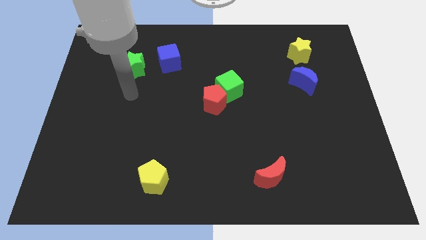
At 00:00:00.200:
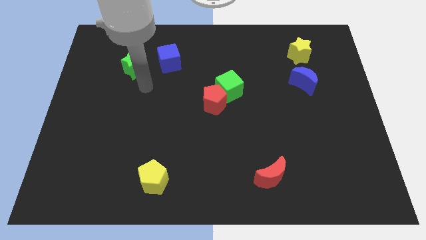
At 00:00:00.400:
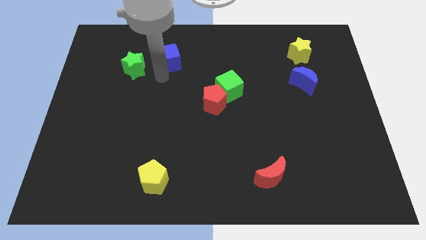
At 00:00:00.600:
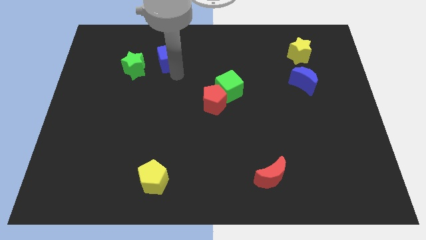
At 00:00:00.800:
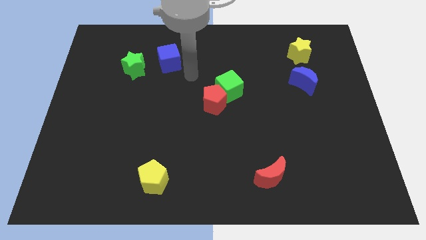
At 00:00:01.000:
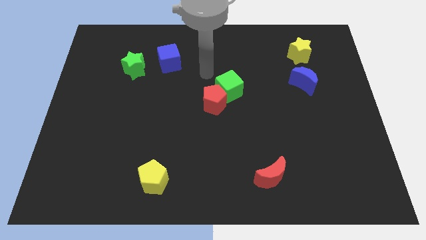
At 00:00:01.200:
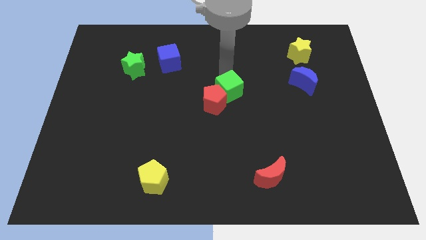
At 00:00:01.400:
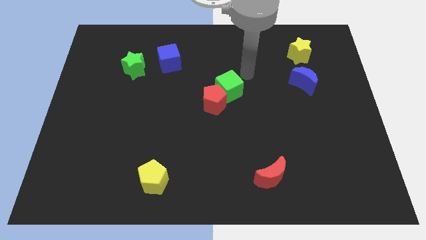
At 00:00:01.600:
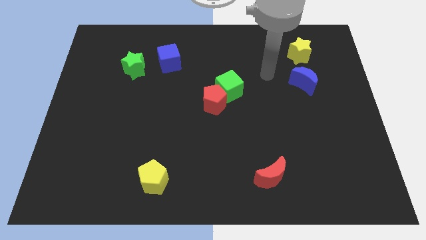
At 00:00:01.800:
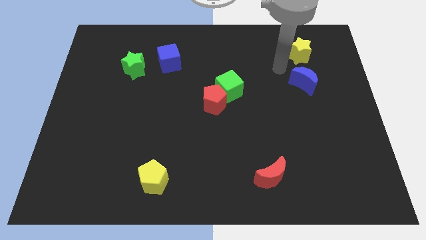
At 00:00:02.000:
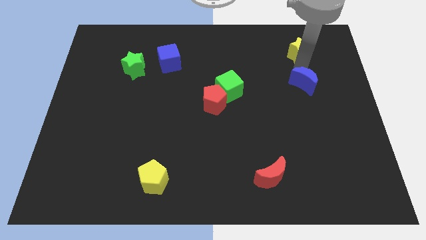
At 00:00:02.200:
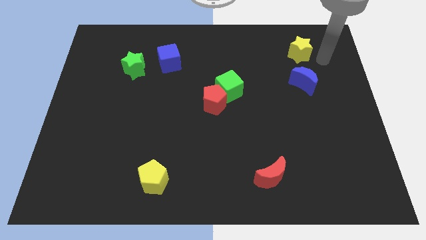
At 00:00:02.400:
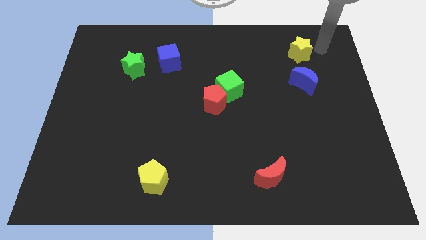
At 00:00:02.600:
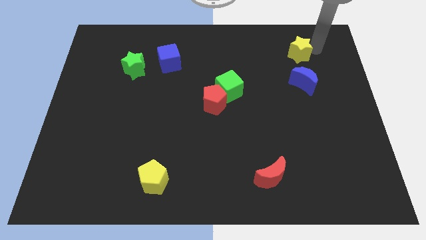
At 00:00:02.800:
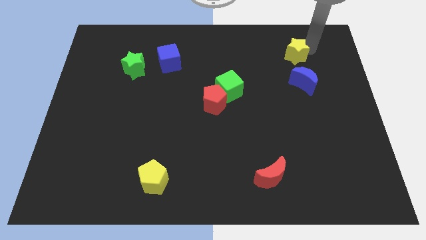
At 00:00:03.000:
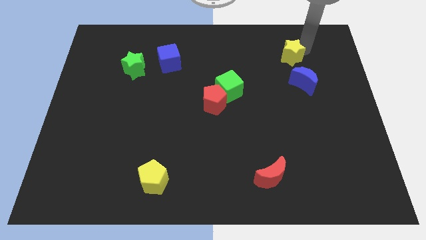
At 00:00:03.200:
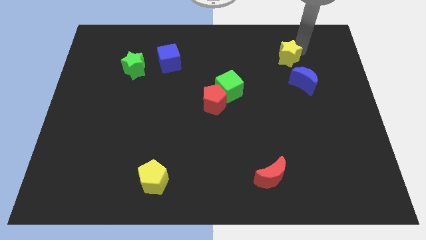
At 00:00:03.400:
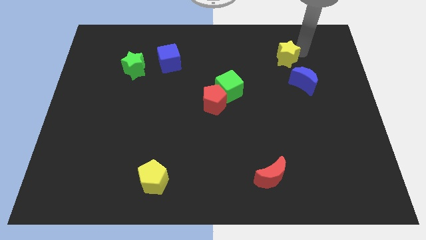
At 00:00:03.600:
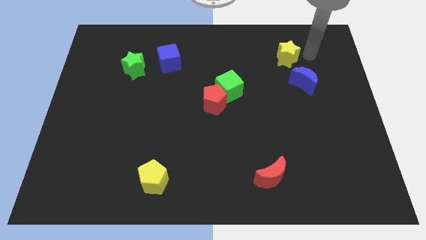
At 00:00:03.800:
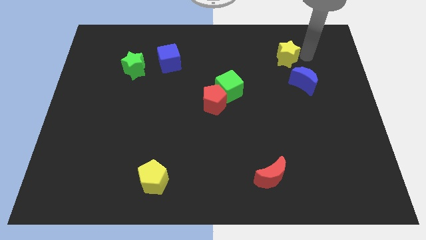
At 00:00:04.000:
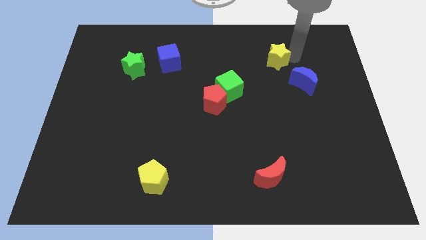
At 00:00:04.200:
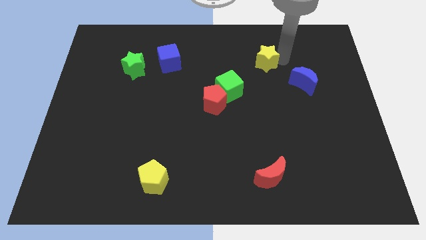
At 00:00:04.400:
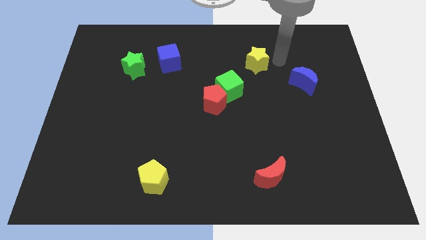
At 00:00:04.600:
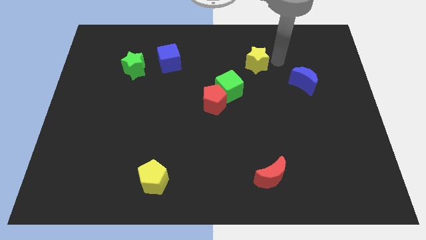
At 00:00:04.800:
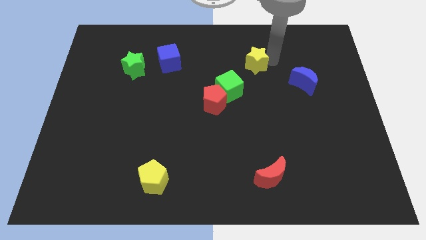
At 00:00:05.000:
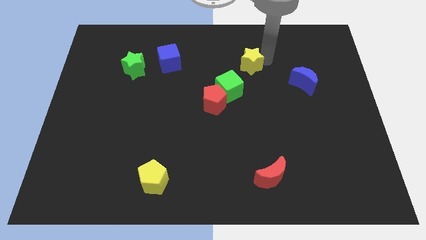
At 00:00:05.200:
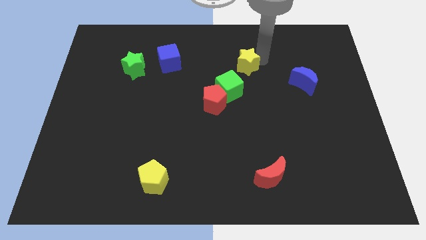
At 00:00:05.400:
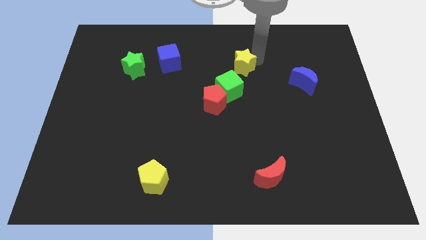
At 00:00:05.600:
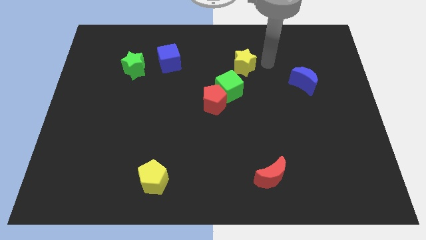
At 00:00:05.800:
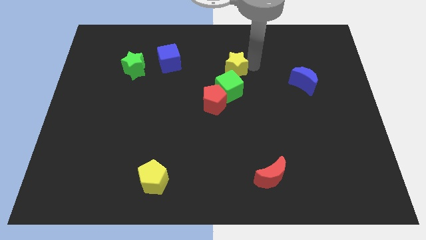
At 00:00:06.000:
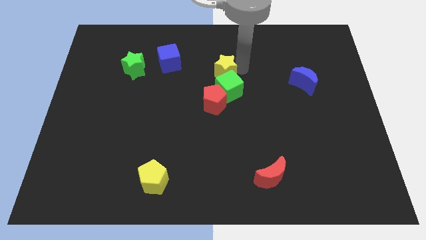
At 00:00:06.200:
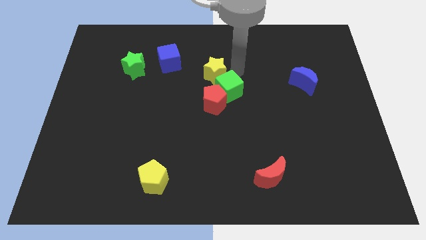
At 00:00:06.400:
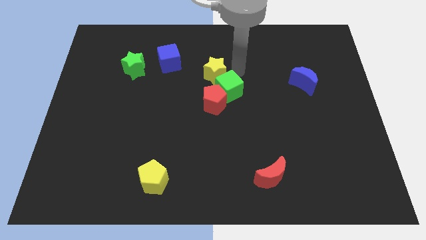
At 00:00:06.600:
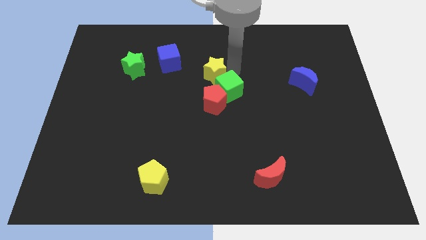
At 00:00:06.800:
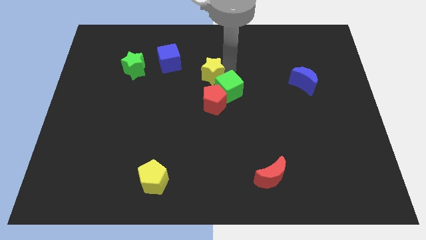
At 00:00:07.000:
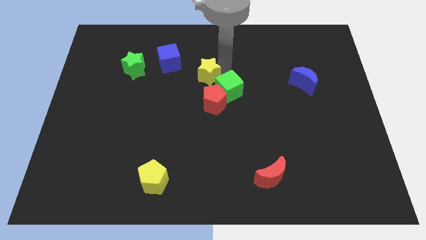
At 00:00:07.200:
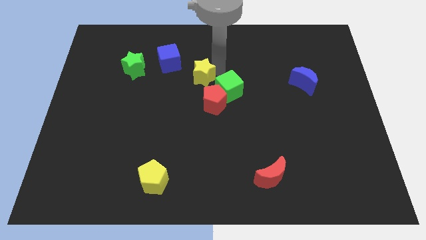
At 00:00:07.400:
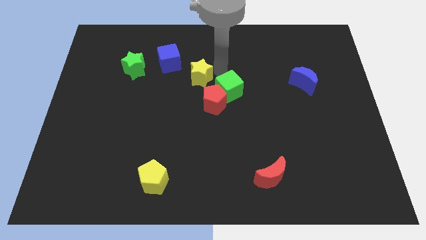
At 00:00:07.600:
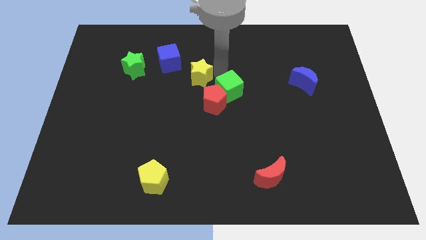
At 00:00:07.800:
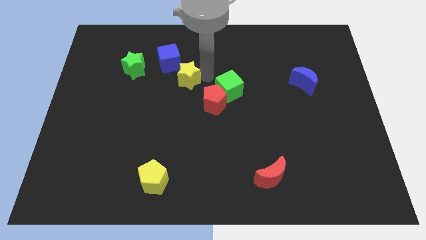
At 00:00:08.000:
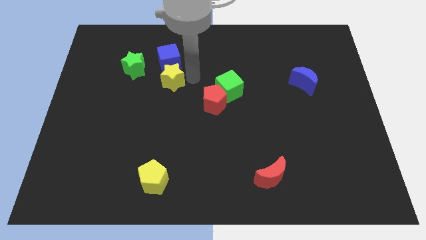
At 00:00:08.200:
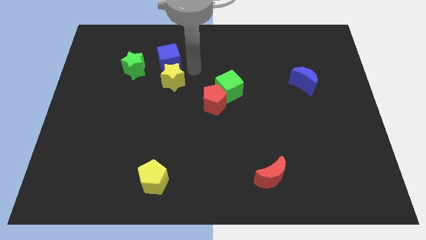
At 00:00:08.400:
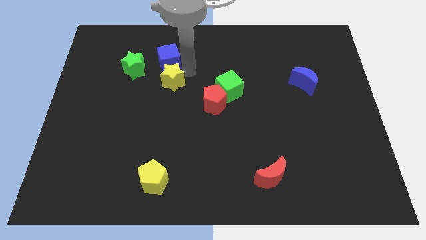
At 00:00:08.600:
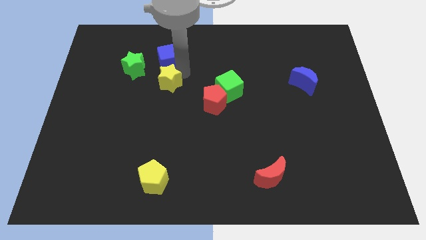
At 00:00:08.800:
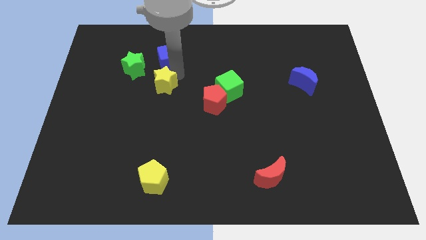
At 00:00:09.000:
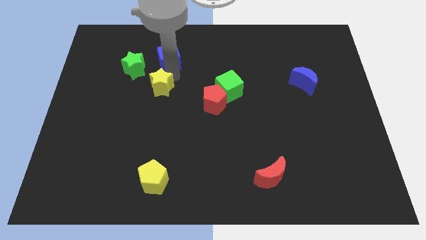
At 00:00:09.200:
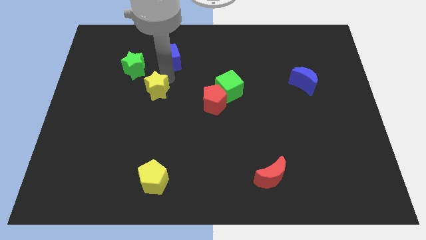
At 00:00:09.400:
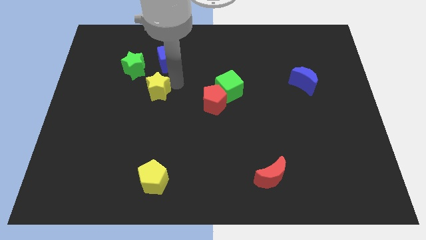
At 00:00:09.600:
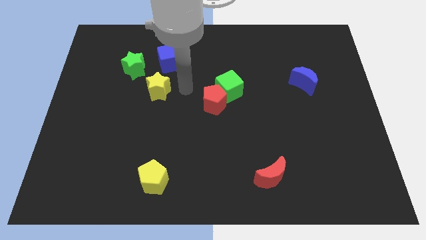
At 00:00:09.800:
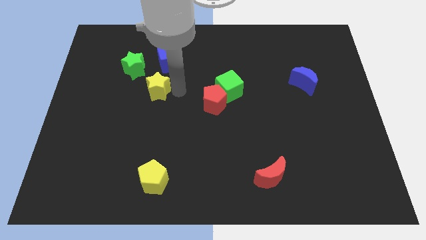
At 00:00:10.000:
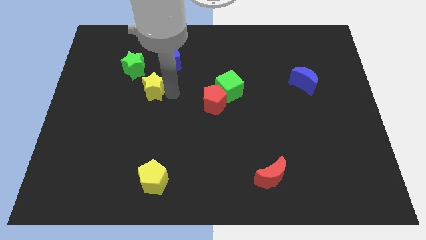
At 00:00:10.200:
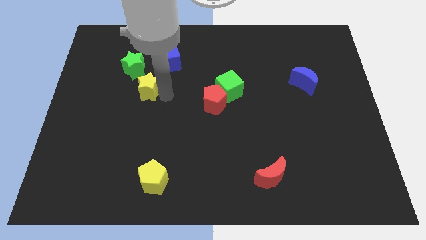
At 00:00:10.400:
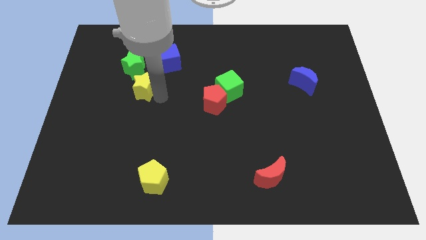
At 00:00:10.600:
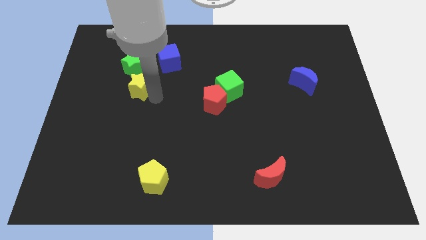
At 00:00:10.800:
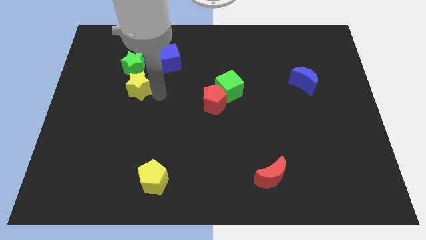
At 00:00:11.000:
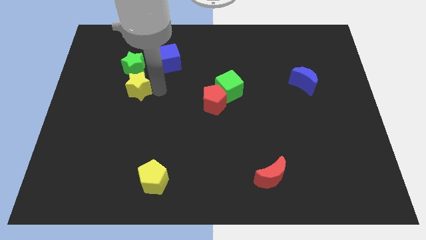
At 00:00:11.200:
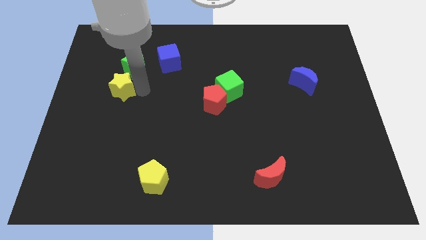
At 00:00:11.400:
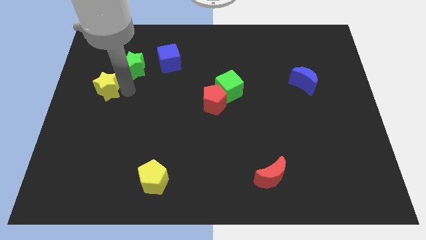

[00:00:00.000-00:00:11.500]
push the yellow star to the left side

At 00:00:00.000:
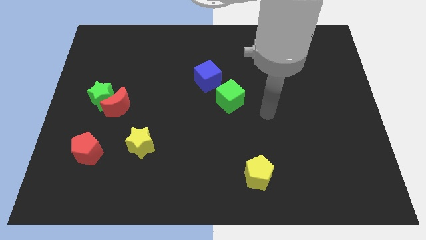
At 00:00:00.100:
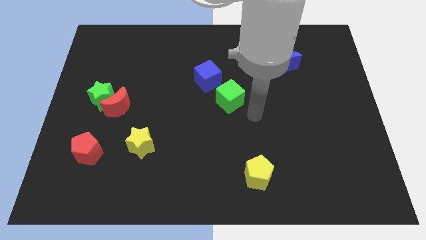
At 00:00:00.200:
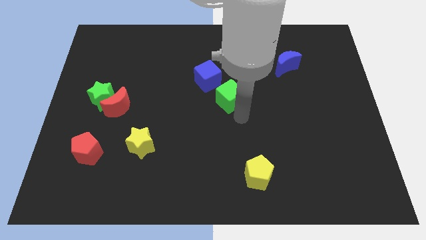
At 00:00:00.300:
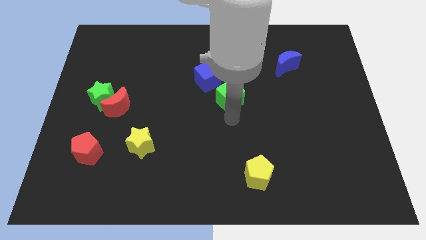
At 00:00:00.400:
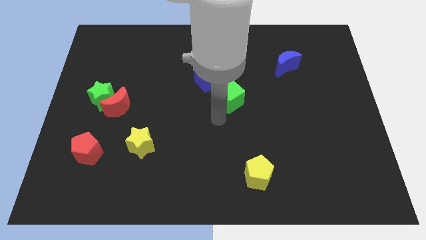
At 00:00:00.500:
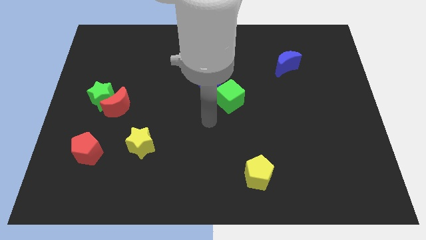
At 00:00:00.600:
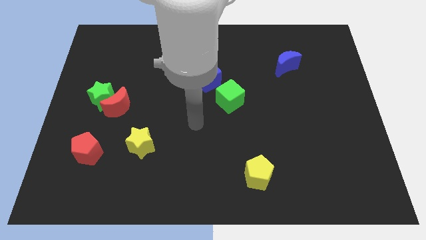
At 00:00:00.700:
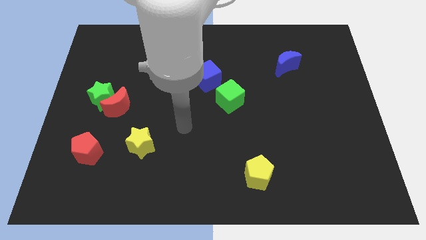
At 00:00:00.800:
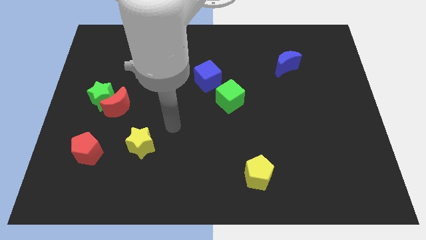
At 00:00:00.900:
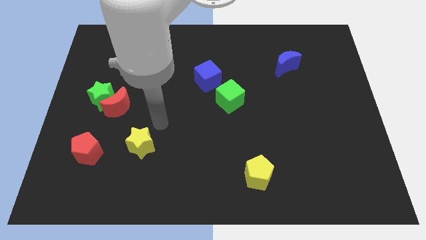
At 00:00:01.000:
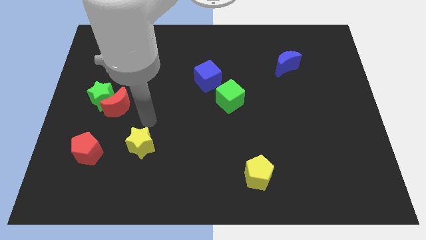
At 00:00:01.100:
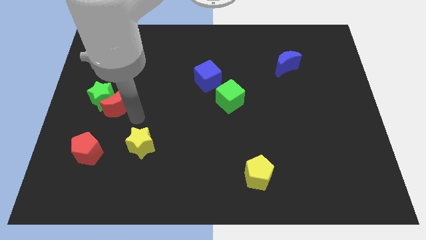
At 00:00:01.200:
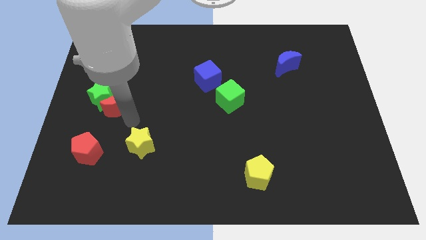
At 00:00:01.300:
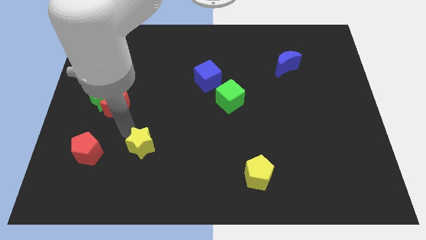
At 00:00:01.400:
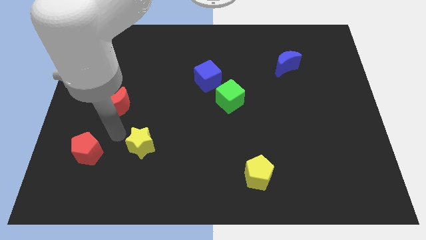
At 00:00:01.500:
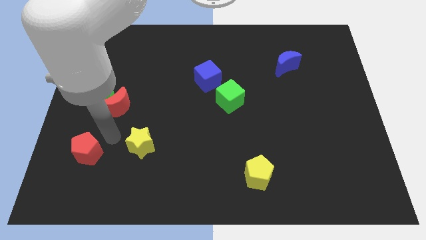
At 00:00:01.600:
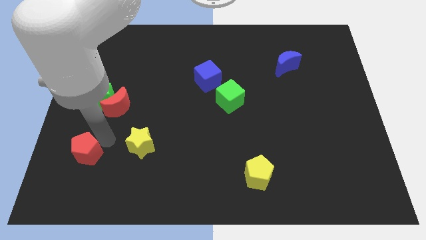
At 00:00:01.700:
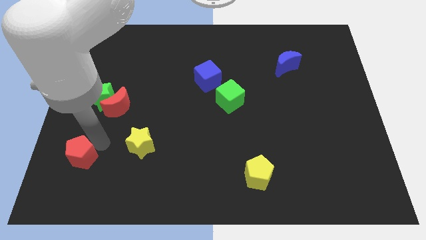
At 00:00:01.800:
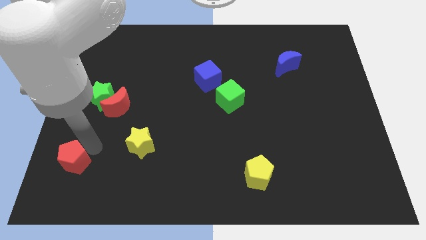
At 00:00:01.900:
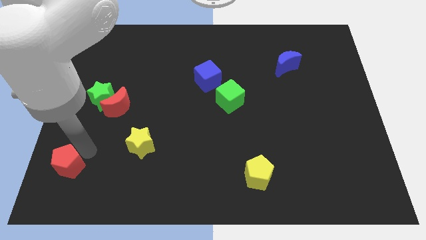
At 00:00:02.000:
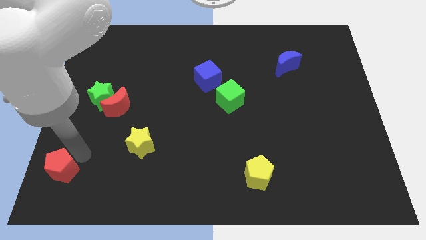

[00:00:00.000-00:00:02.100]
move the red pentagon to the bottom left of the board
